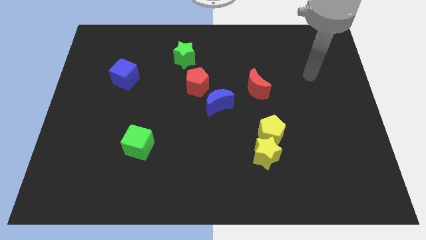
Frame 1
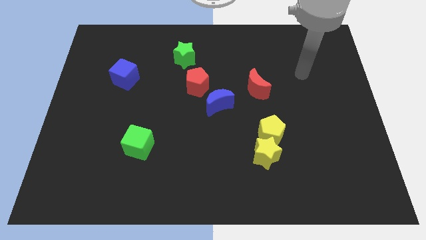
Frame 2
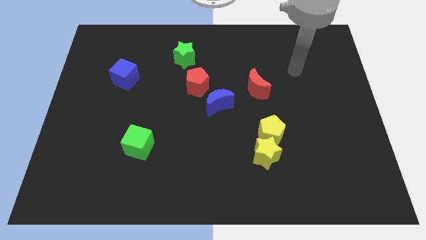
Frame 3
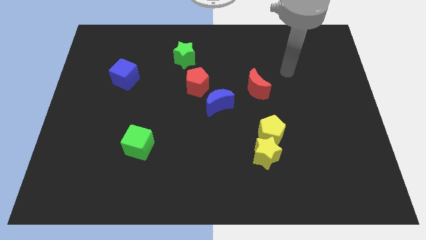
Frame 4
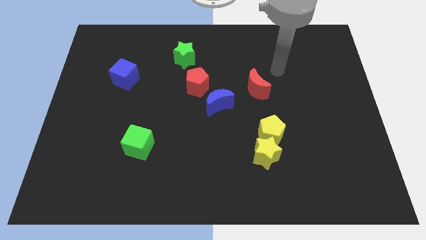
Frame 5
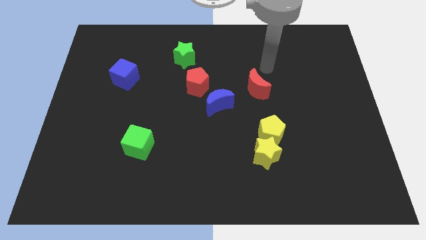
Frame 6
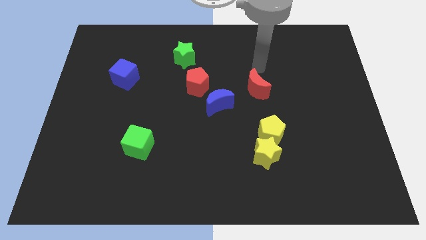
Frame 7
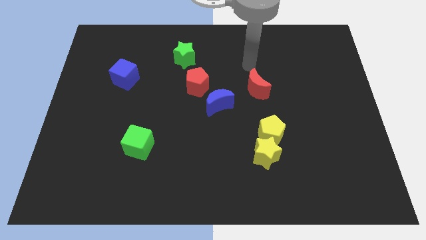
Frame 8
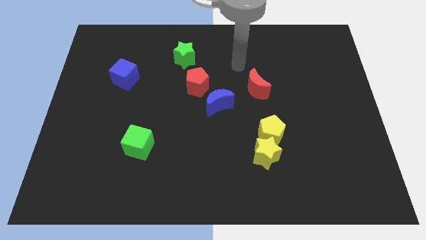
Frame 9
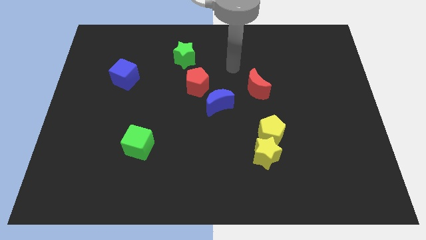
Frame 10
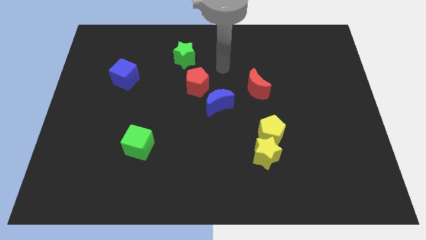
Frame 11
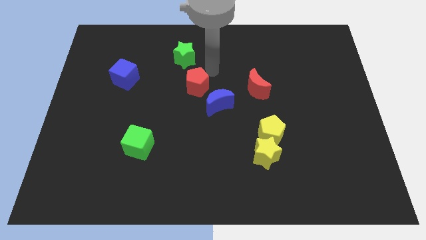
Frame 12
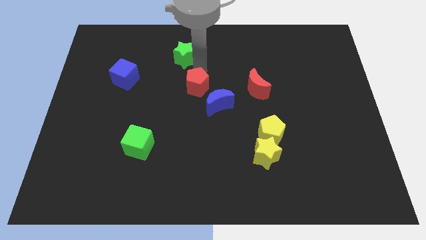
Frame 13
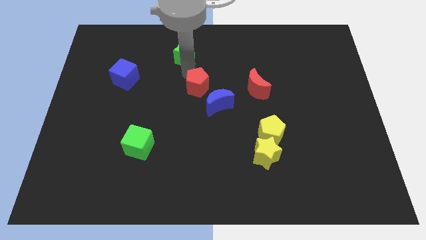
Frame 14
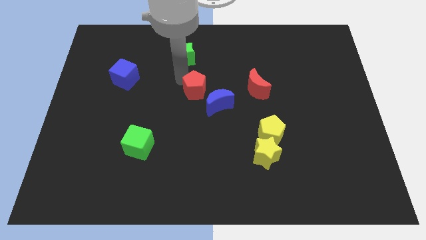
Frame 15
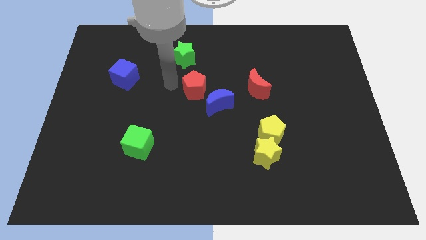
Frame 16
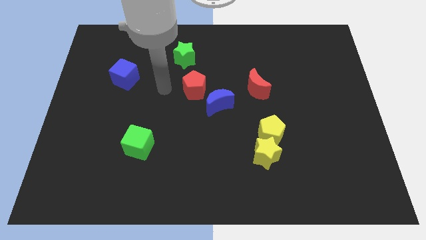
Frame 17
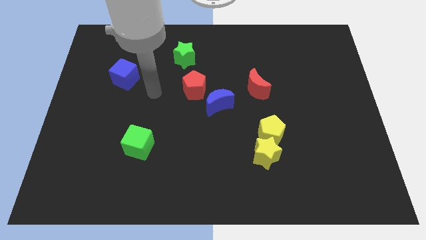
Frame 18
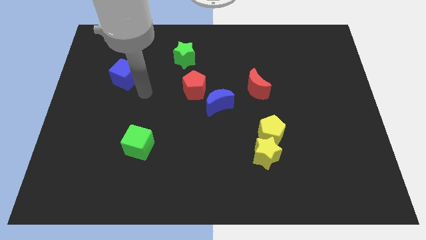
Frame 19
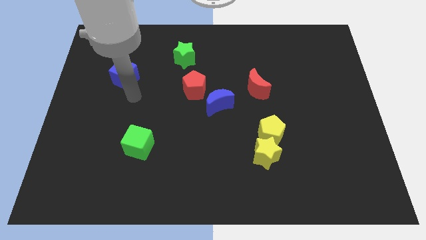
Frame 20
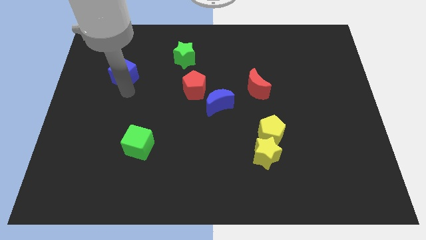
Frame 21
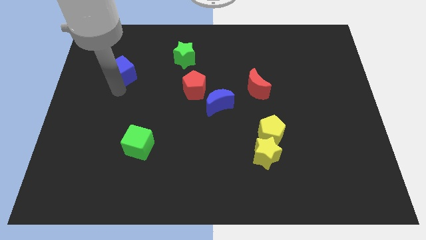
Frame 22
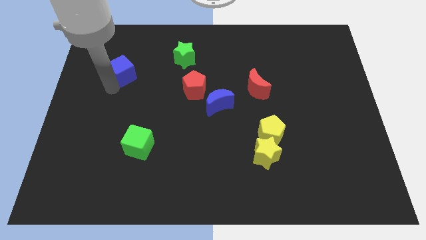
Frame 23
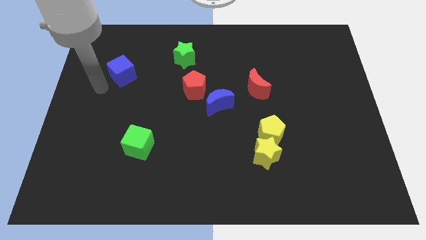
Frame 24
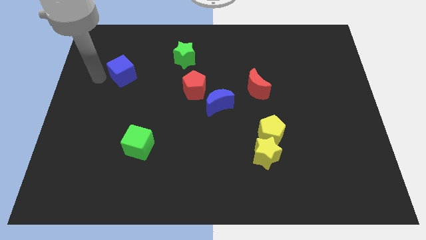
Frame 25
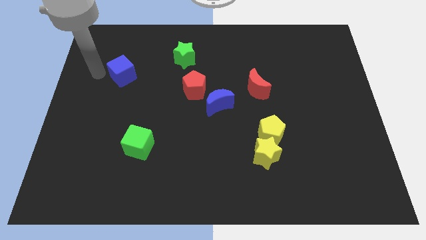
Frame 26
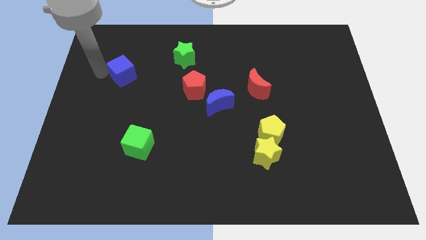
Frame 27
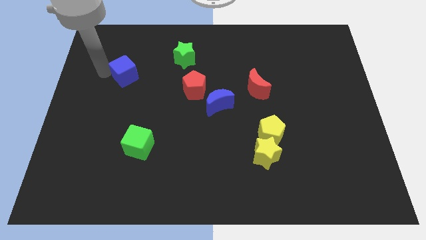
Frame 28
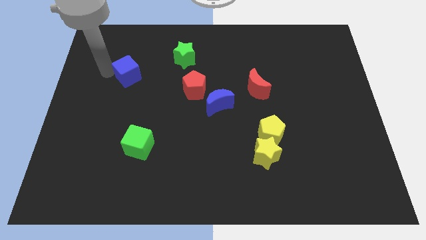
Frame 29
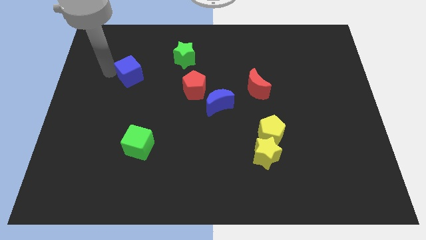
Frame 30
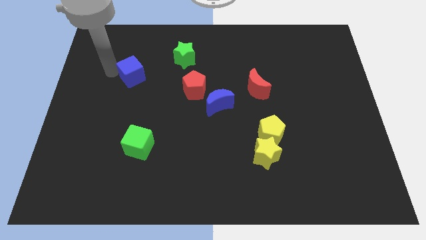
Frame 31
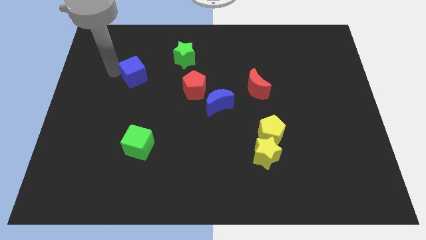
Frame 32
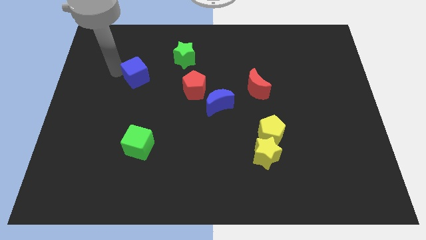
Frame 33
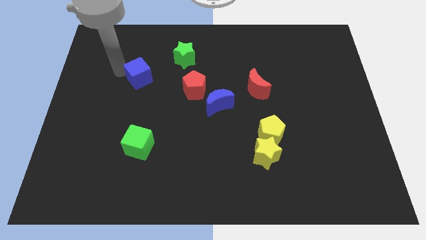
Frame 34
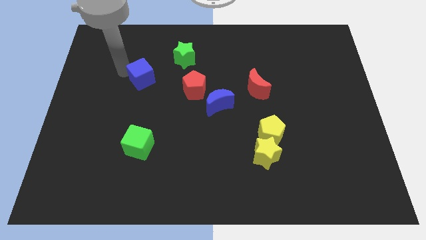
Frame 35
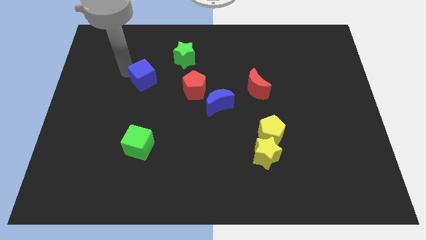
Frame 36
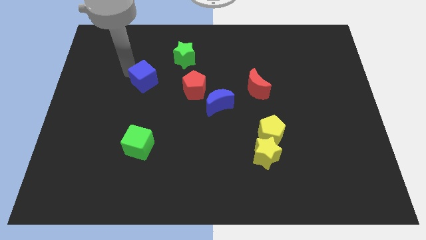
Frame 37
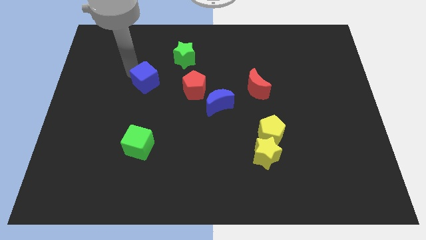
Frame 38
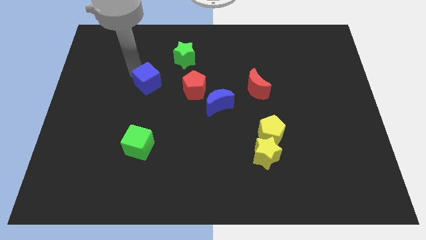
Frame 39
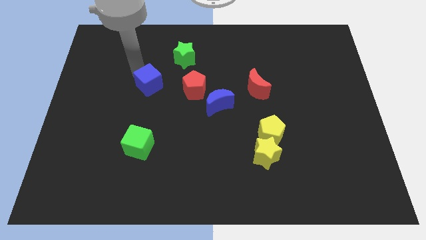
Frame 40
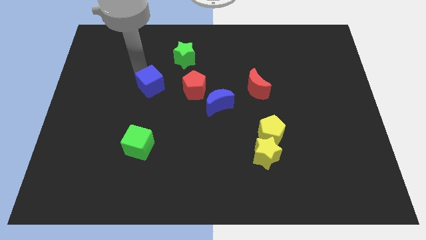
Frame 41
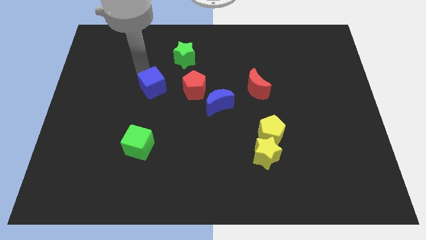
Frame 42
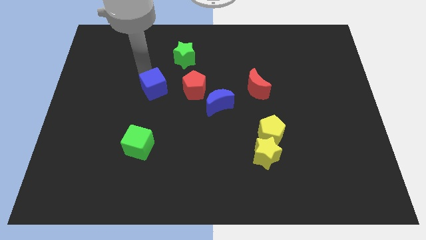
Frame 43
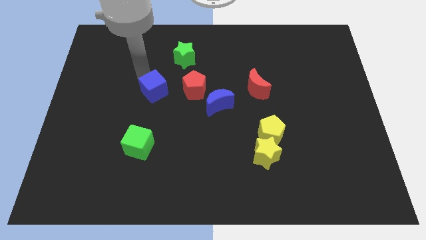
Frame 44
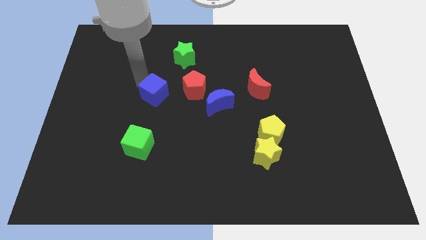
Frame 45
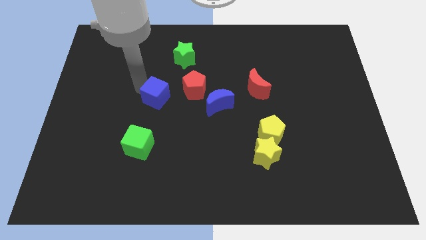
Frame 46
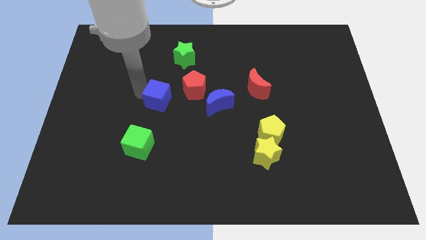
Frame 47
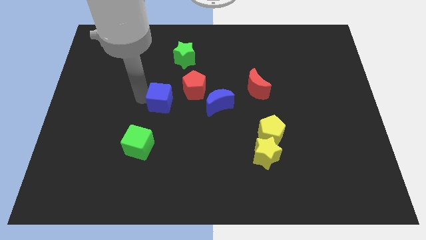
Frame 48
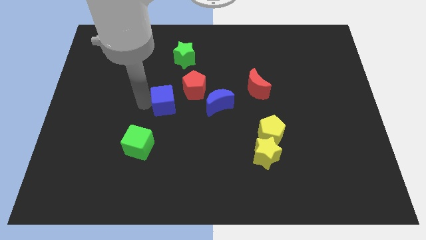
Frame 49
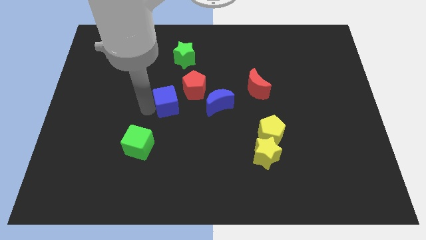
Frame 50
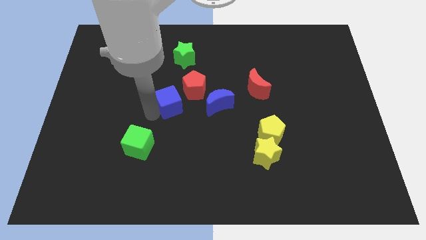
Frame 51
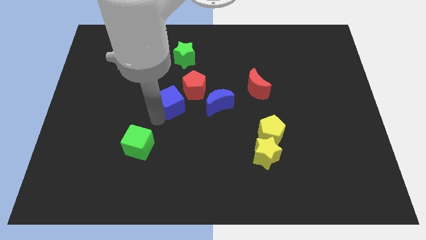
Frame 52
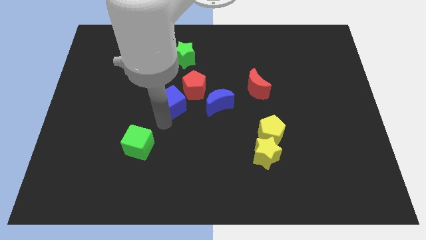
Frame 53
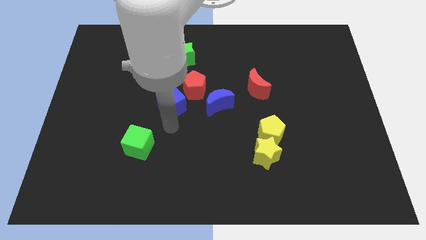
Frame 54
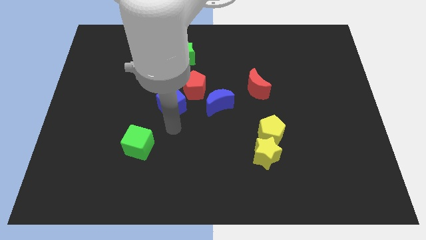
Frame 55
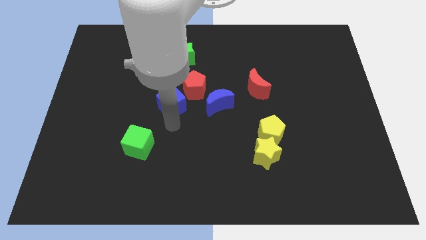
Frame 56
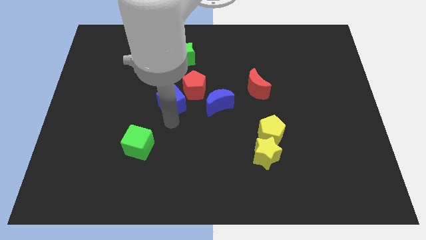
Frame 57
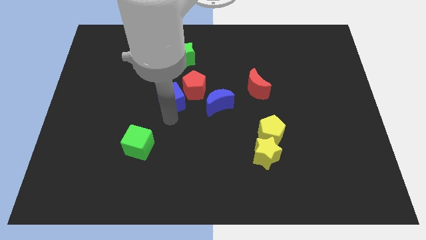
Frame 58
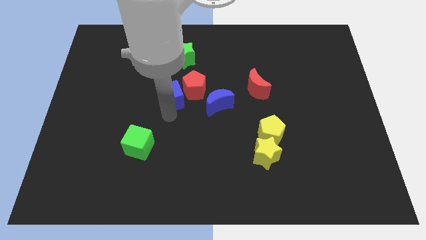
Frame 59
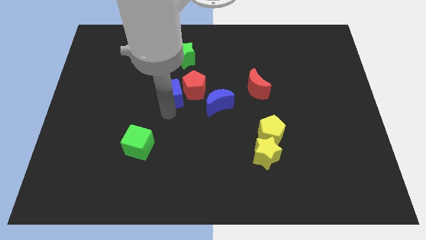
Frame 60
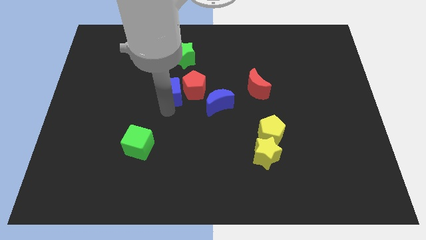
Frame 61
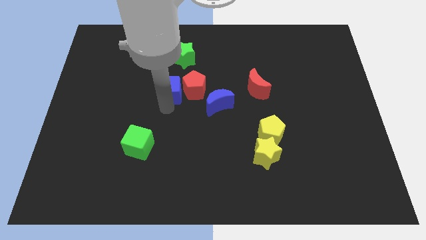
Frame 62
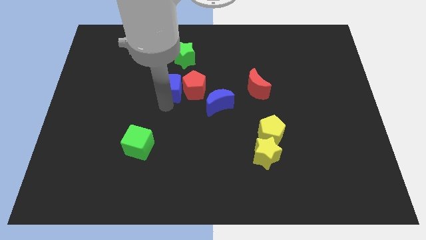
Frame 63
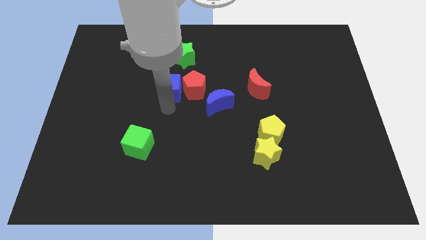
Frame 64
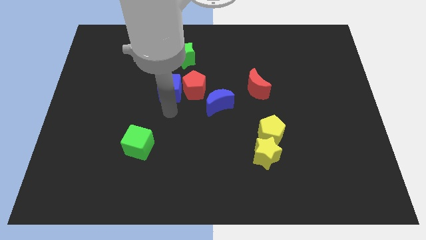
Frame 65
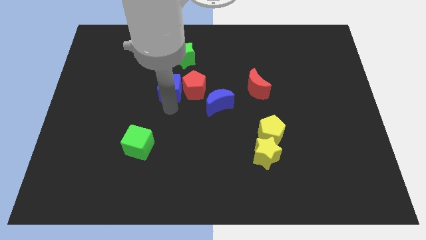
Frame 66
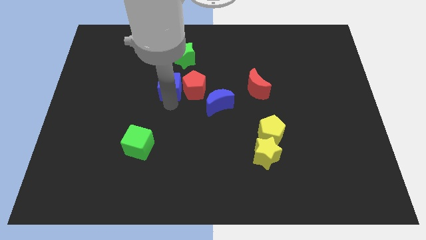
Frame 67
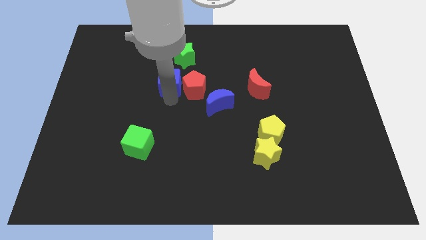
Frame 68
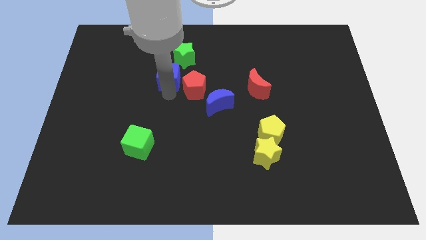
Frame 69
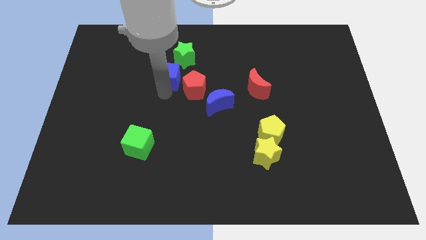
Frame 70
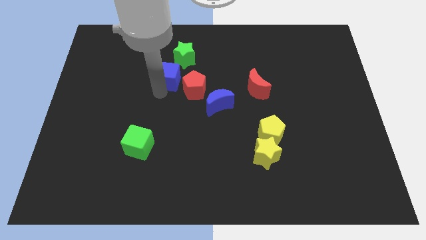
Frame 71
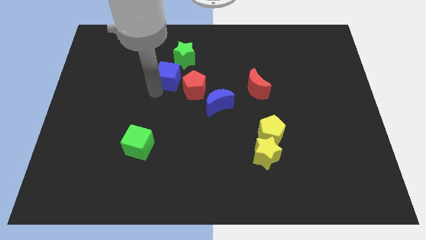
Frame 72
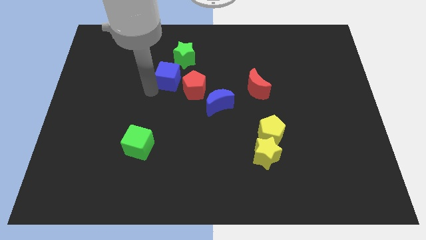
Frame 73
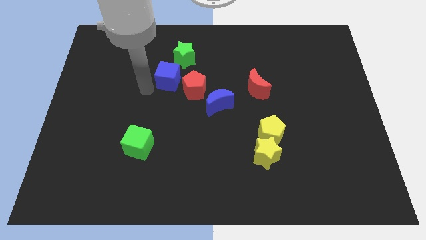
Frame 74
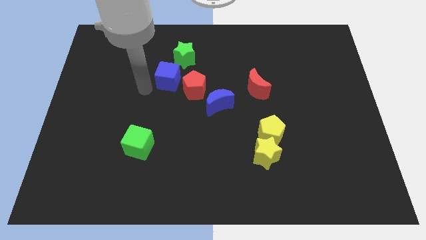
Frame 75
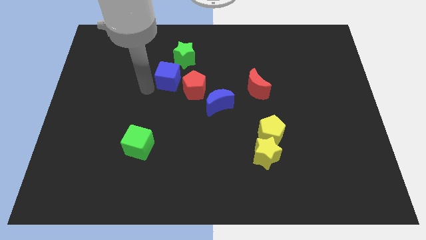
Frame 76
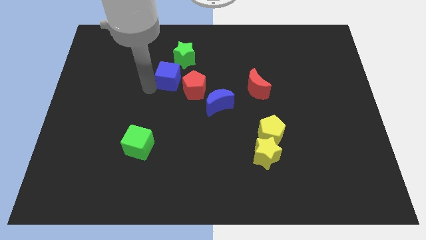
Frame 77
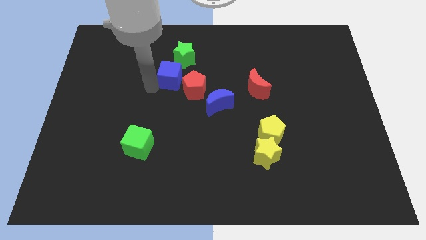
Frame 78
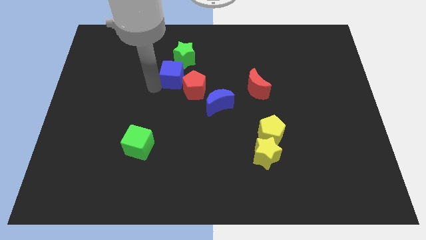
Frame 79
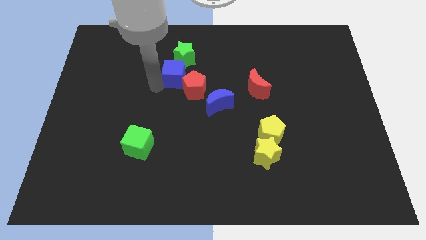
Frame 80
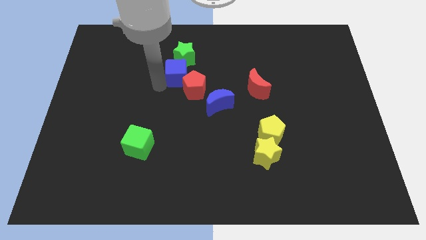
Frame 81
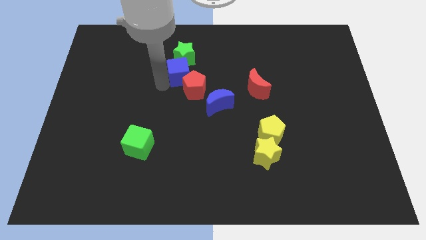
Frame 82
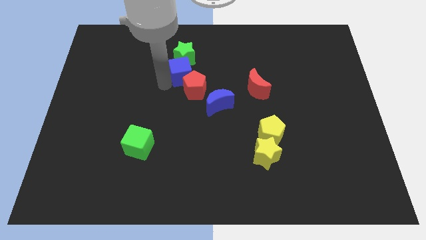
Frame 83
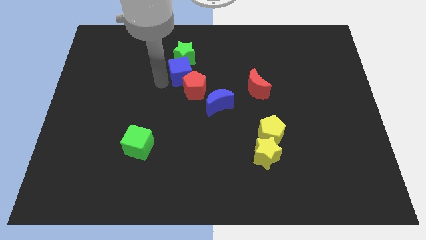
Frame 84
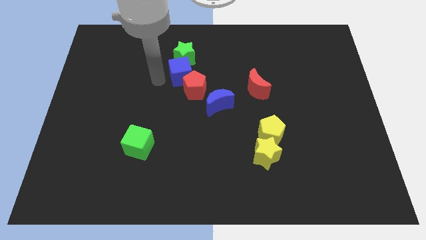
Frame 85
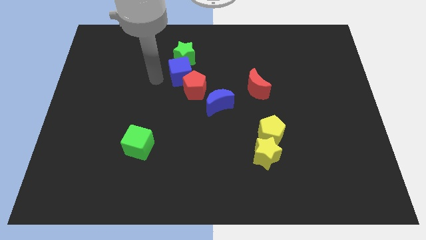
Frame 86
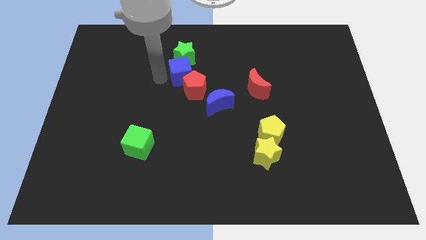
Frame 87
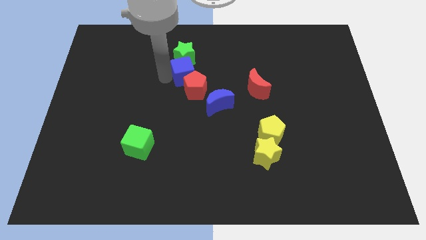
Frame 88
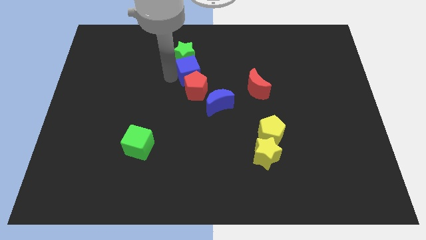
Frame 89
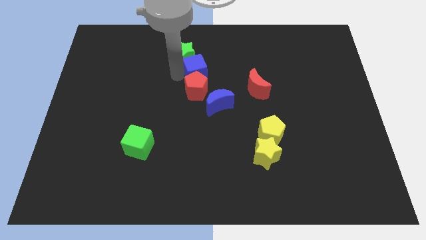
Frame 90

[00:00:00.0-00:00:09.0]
move the blue cube diagonally up and to the right of the red pentagon
